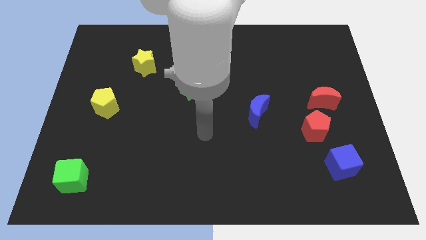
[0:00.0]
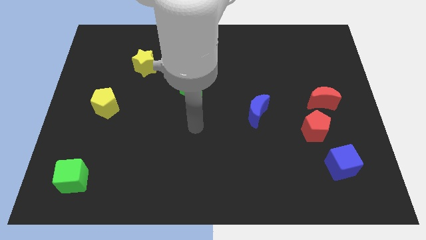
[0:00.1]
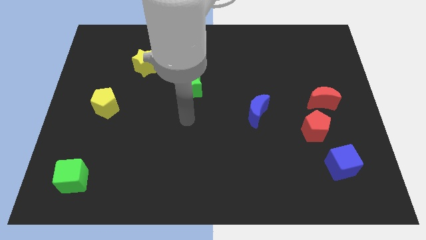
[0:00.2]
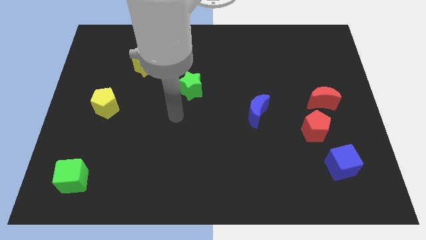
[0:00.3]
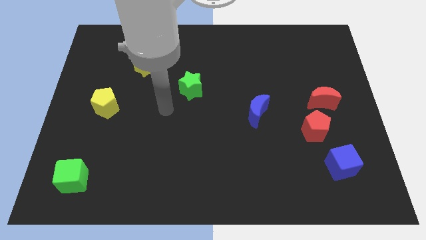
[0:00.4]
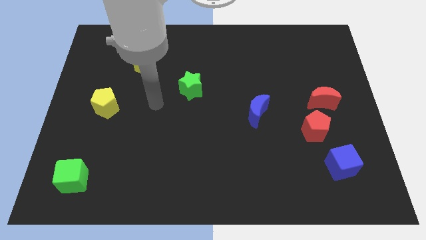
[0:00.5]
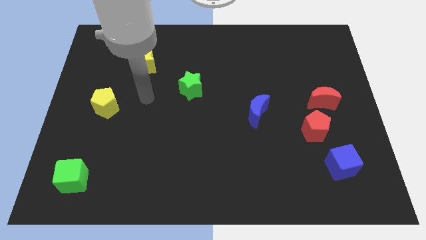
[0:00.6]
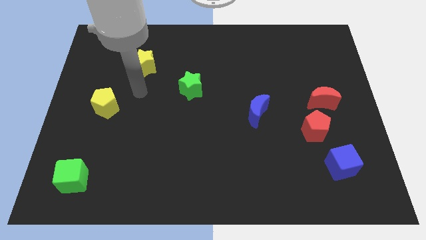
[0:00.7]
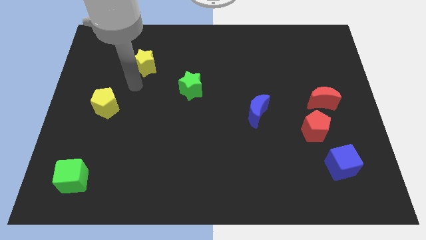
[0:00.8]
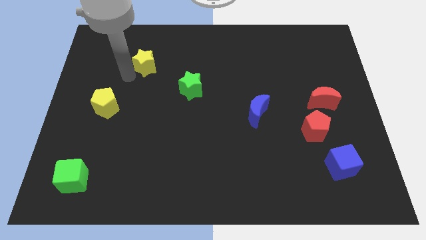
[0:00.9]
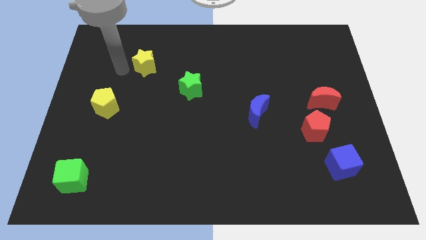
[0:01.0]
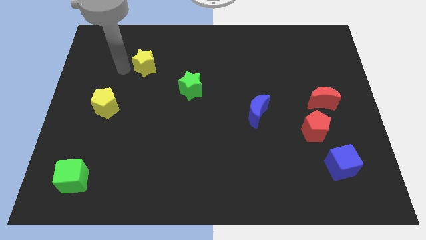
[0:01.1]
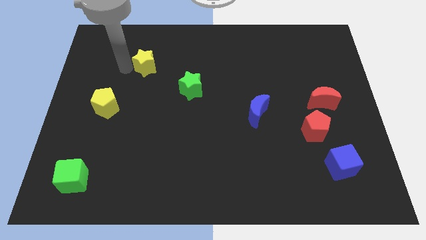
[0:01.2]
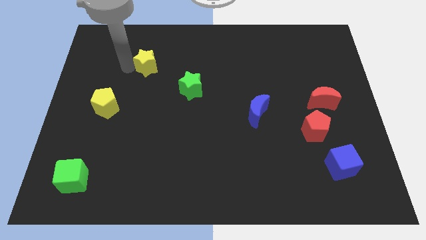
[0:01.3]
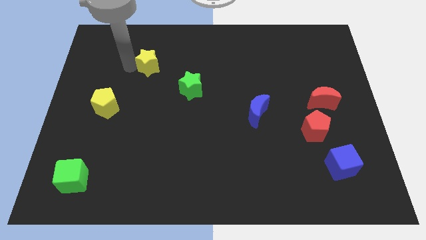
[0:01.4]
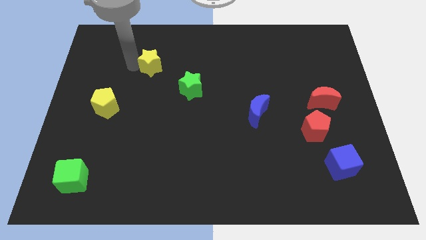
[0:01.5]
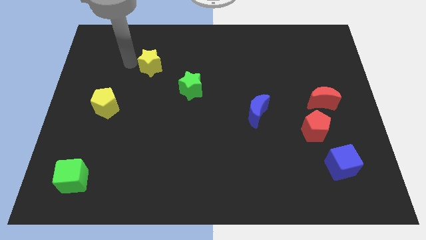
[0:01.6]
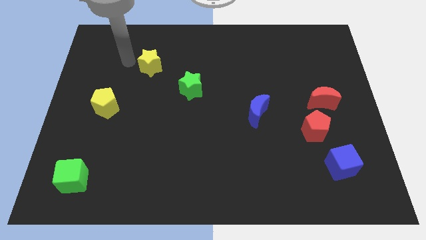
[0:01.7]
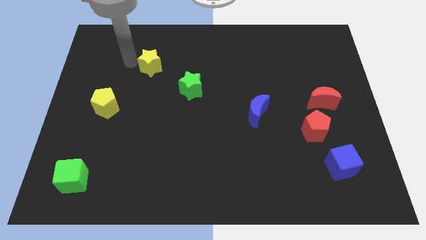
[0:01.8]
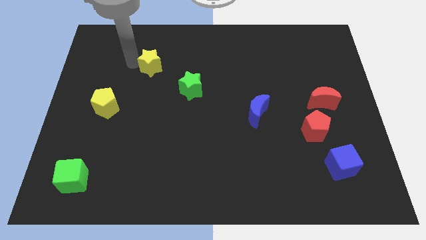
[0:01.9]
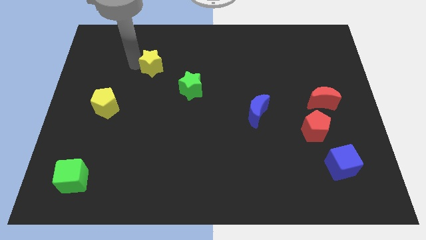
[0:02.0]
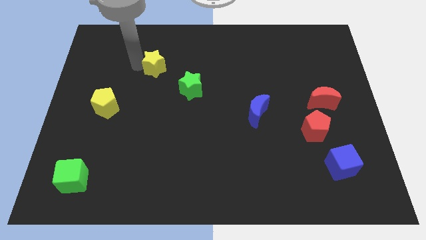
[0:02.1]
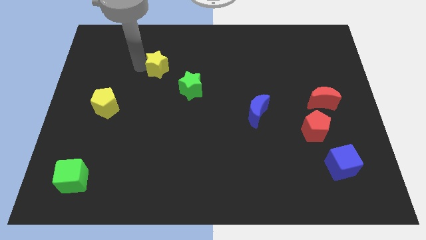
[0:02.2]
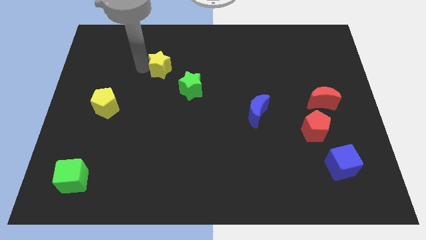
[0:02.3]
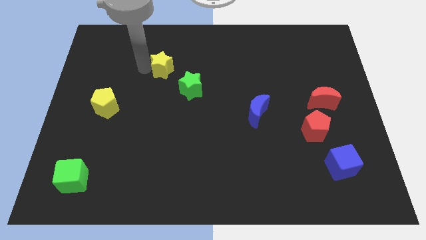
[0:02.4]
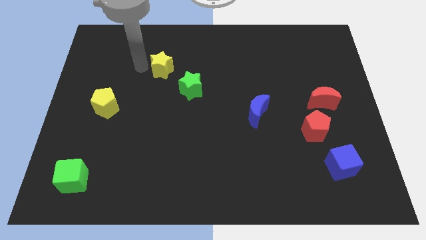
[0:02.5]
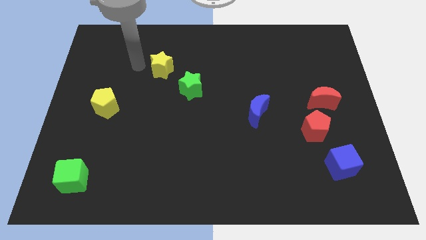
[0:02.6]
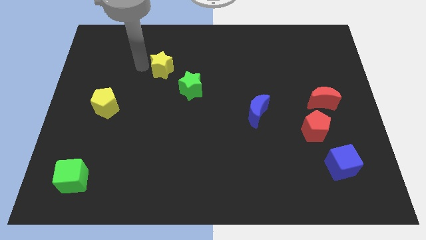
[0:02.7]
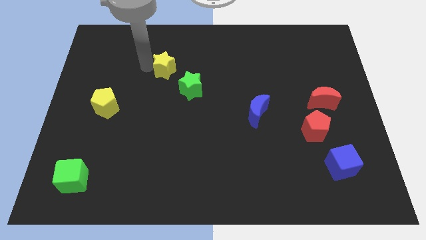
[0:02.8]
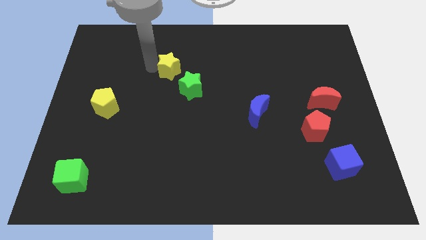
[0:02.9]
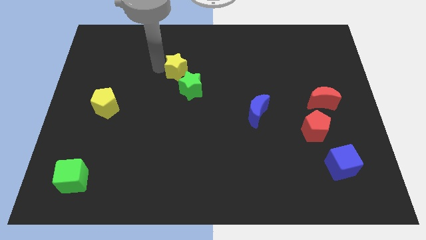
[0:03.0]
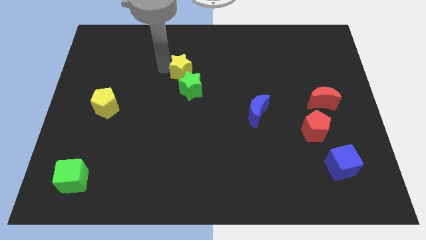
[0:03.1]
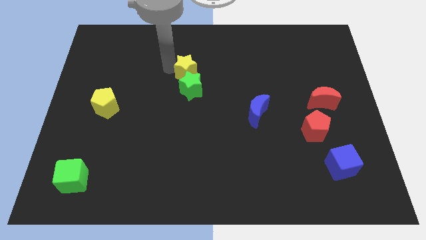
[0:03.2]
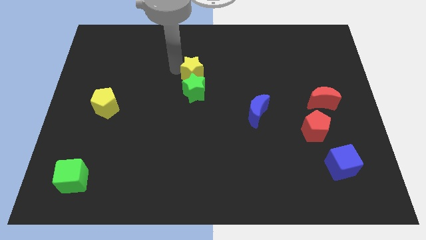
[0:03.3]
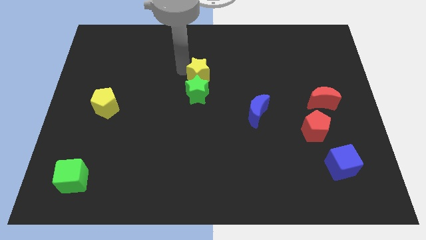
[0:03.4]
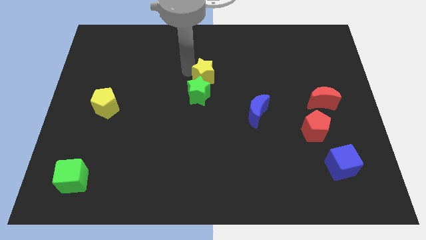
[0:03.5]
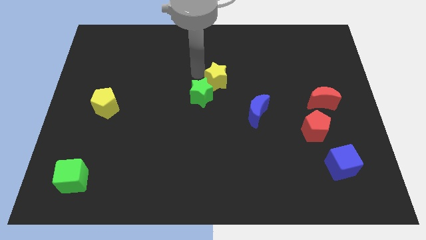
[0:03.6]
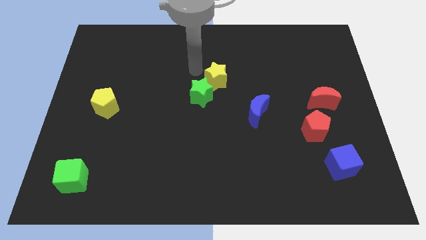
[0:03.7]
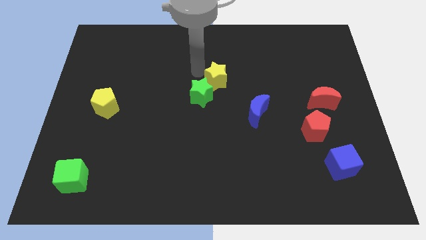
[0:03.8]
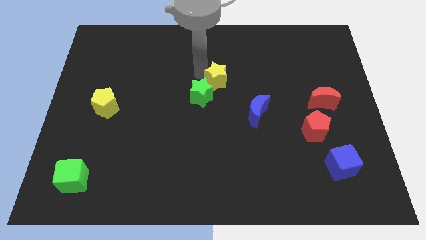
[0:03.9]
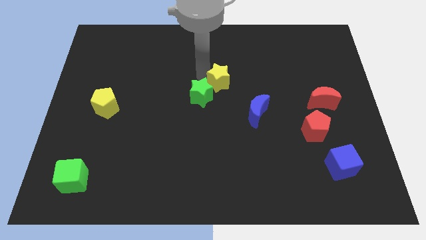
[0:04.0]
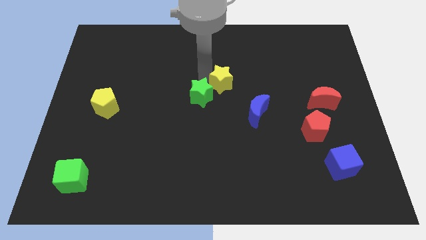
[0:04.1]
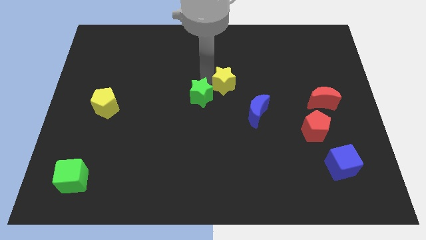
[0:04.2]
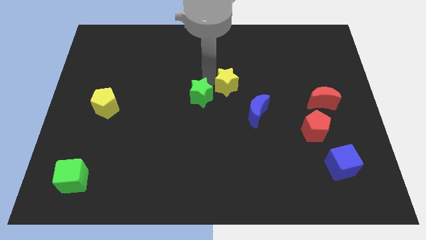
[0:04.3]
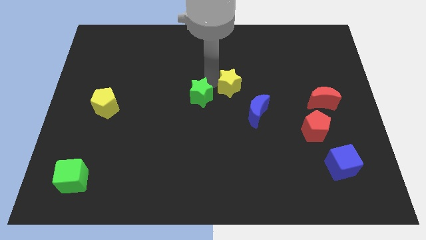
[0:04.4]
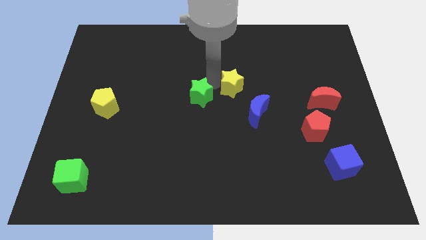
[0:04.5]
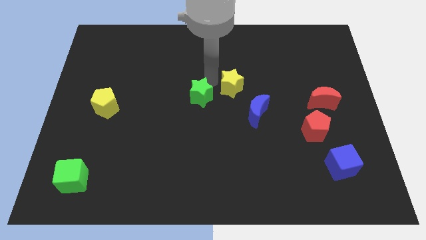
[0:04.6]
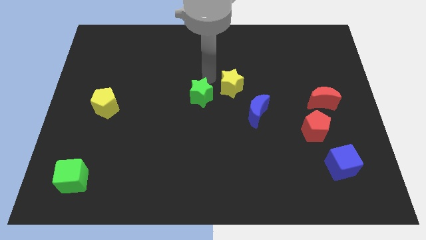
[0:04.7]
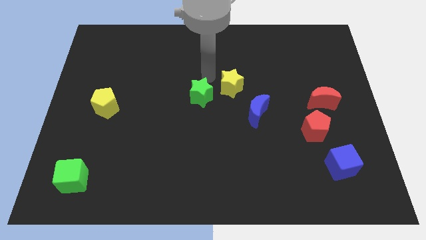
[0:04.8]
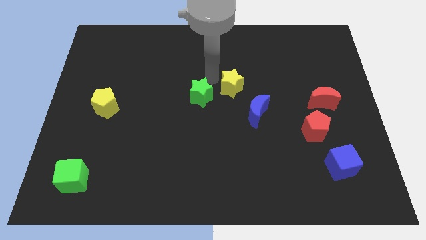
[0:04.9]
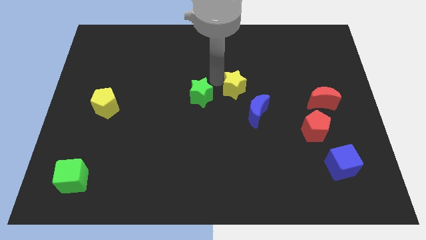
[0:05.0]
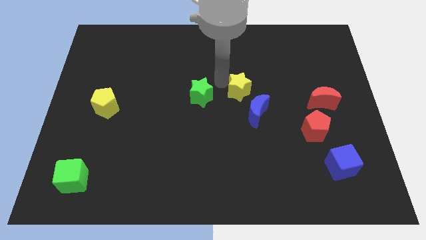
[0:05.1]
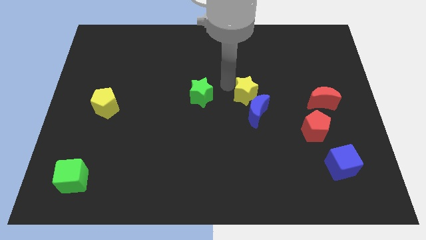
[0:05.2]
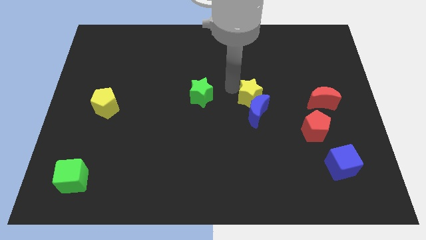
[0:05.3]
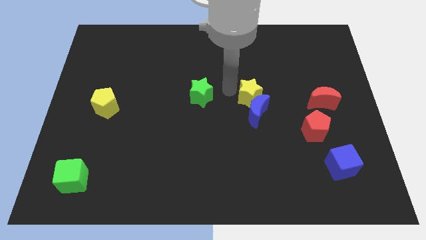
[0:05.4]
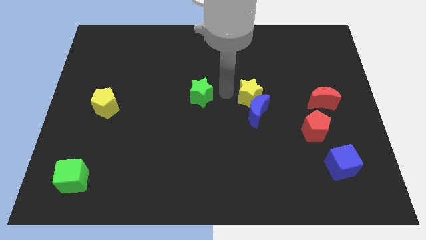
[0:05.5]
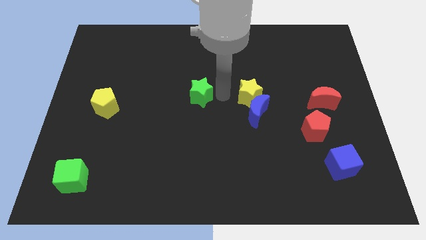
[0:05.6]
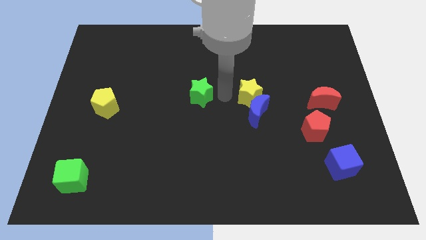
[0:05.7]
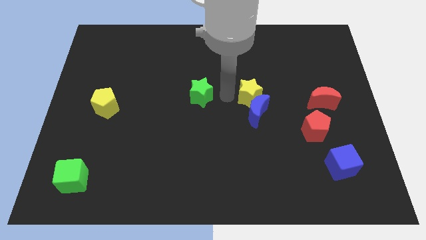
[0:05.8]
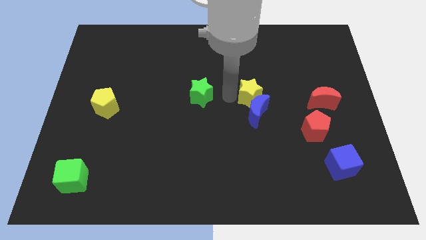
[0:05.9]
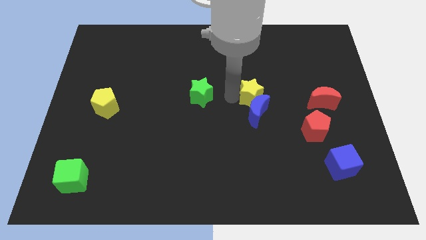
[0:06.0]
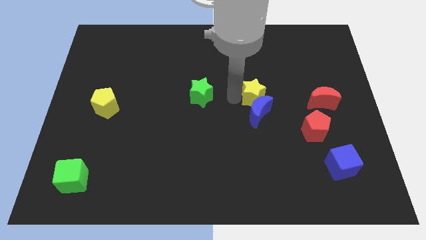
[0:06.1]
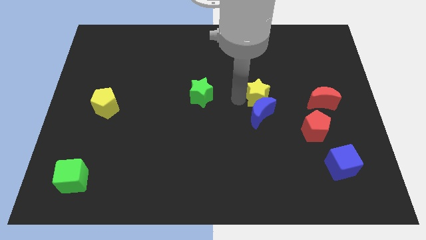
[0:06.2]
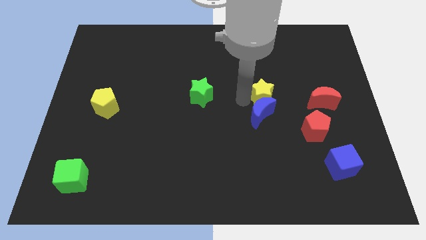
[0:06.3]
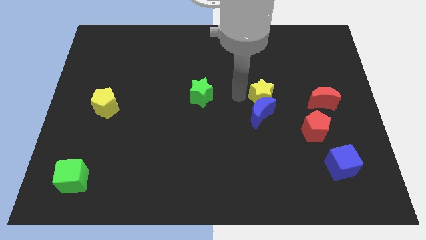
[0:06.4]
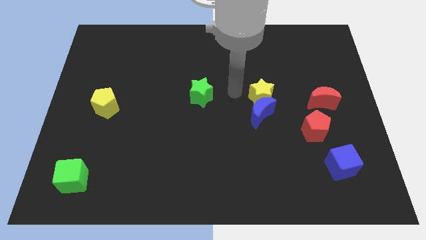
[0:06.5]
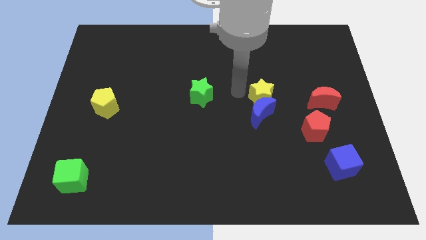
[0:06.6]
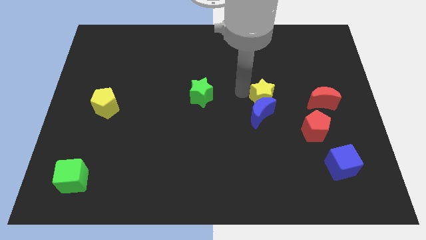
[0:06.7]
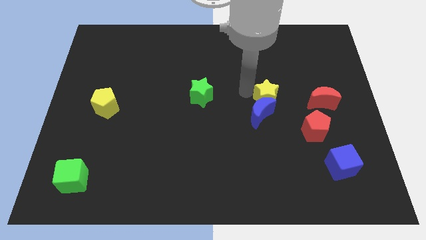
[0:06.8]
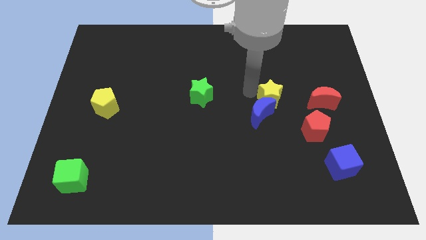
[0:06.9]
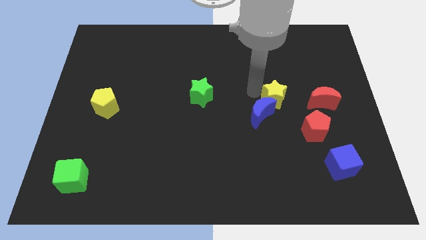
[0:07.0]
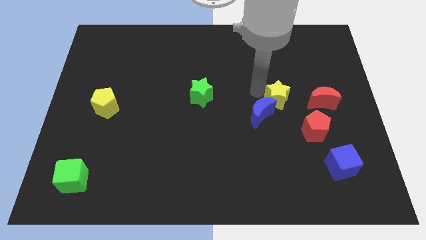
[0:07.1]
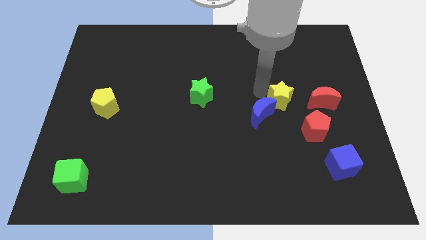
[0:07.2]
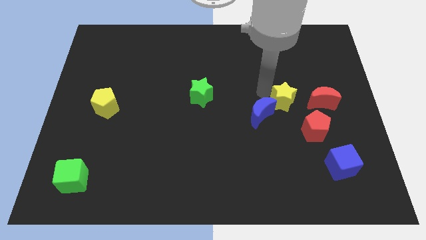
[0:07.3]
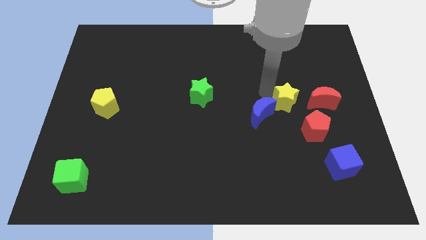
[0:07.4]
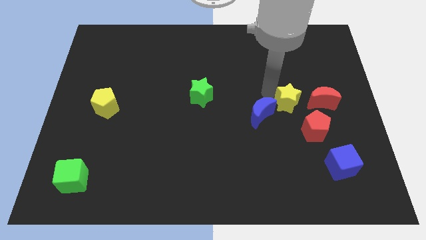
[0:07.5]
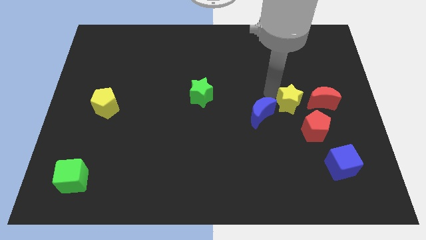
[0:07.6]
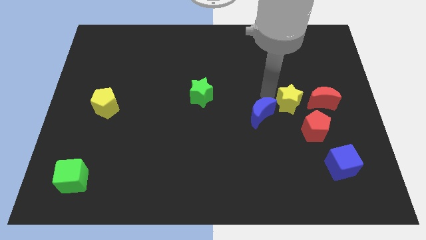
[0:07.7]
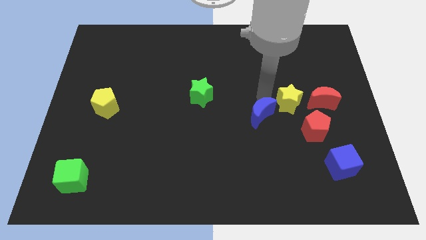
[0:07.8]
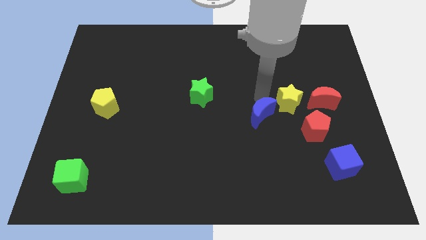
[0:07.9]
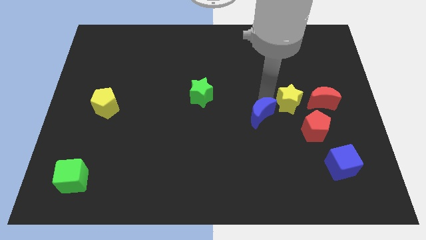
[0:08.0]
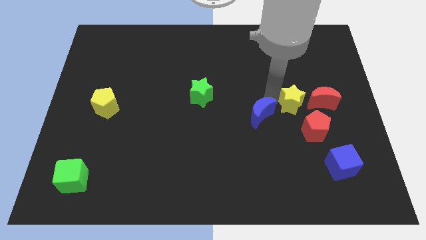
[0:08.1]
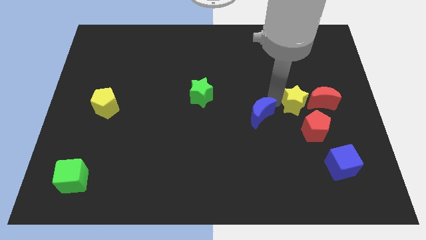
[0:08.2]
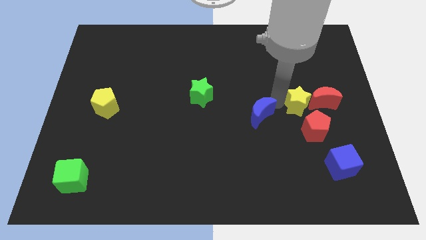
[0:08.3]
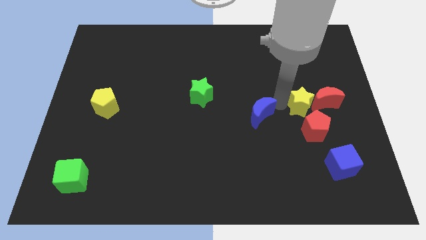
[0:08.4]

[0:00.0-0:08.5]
move the yellow star to the red moon
